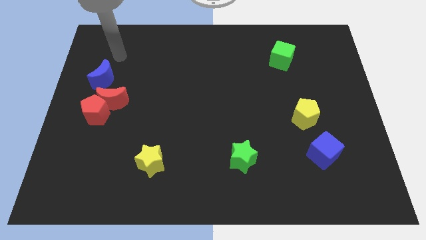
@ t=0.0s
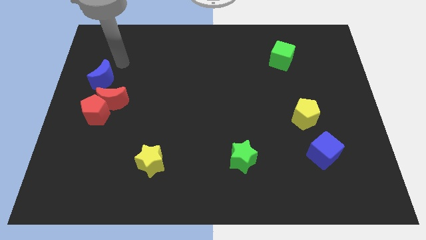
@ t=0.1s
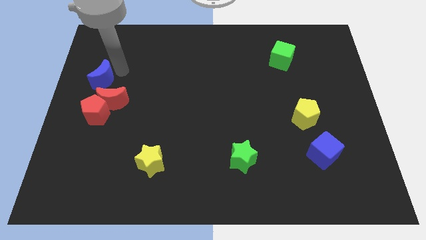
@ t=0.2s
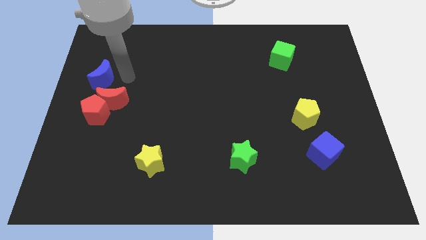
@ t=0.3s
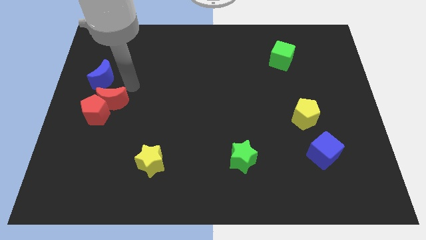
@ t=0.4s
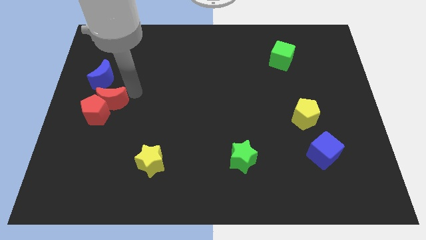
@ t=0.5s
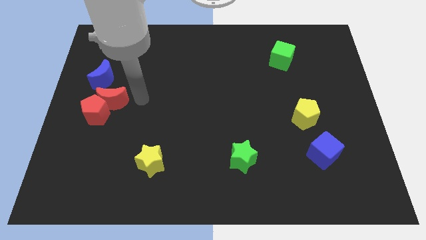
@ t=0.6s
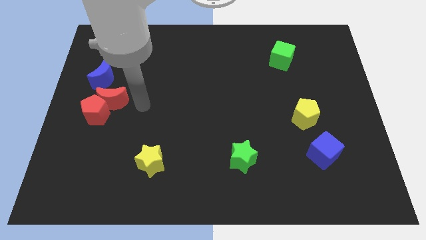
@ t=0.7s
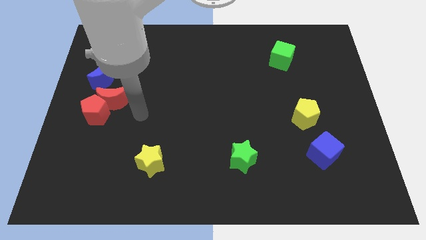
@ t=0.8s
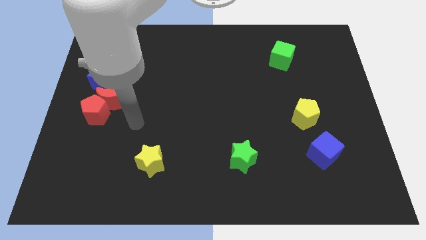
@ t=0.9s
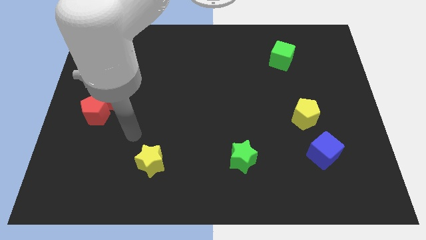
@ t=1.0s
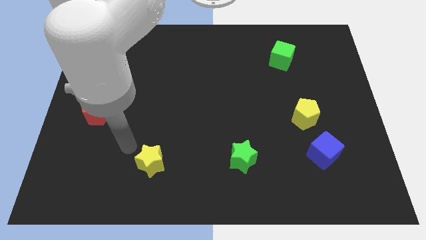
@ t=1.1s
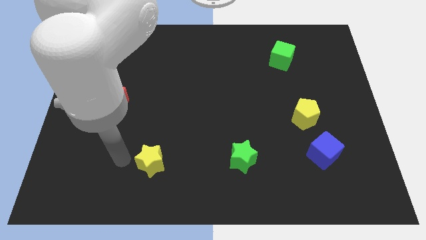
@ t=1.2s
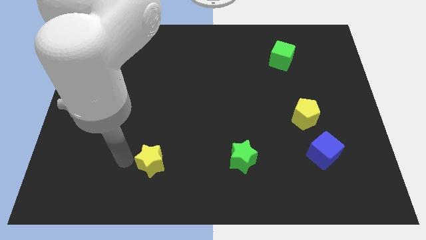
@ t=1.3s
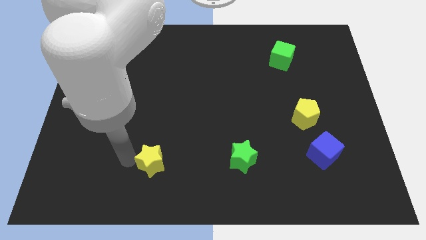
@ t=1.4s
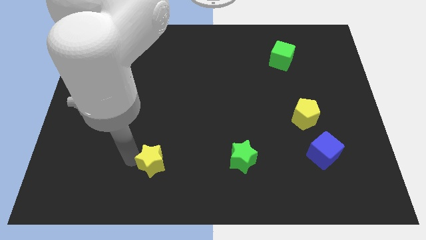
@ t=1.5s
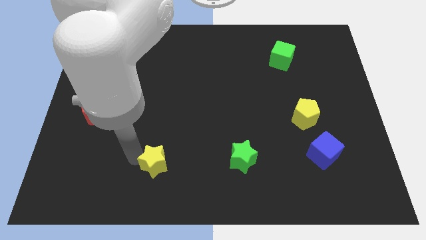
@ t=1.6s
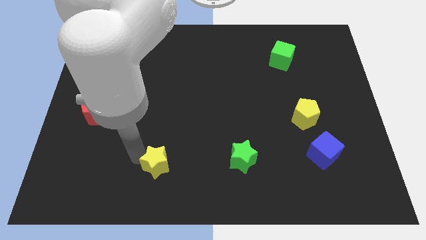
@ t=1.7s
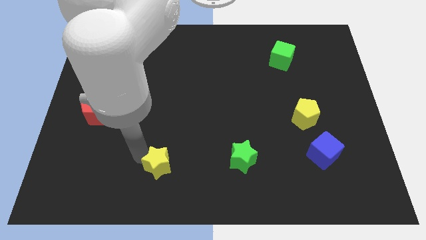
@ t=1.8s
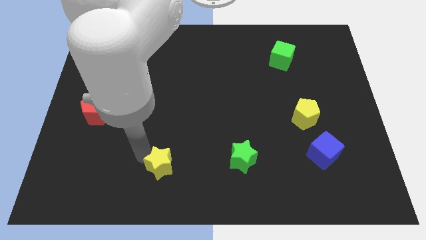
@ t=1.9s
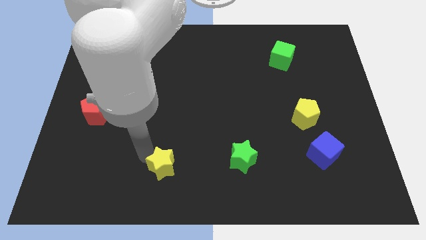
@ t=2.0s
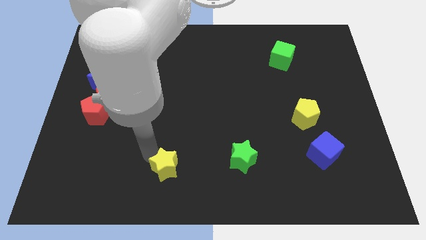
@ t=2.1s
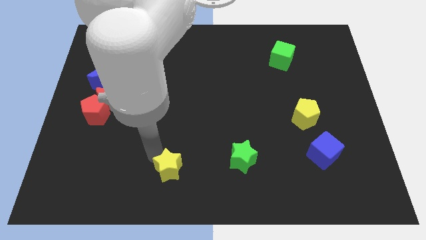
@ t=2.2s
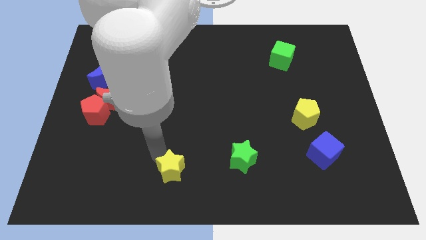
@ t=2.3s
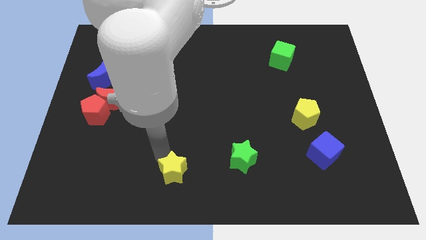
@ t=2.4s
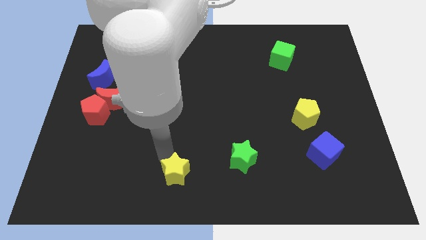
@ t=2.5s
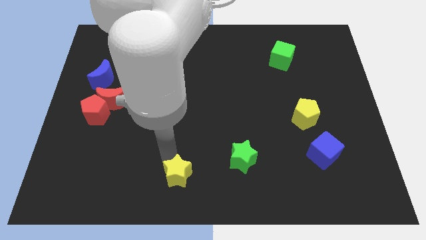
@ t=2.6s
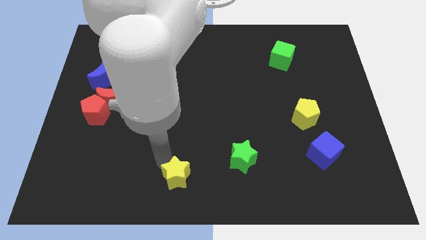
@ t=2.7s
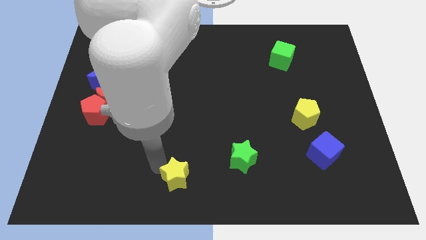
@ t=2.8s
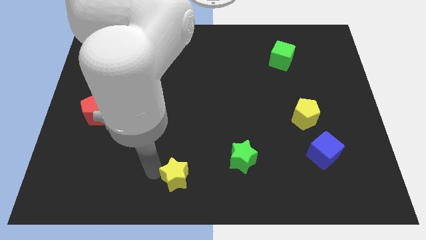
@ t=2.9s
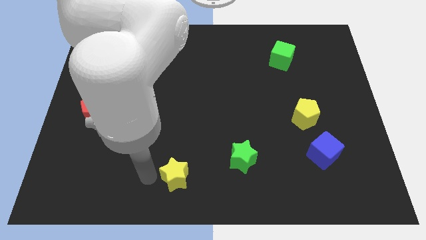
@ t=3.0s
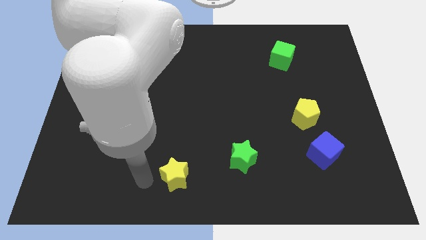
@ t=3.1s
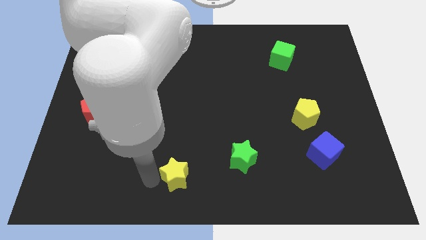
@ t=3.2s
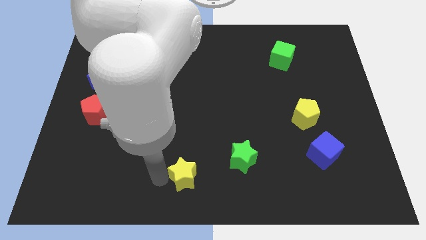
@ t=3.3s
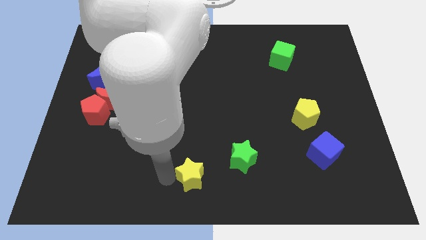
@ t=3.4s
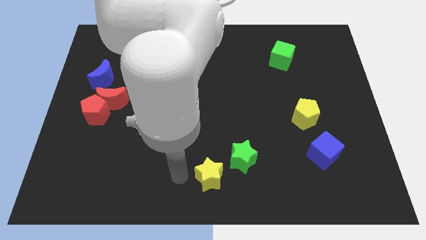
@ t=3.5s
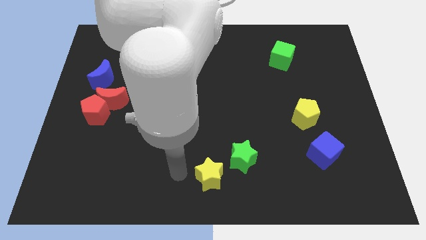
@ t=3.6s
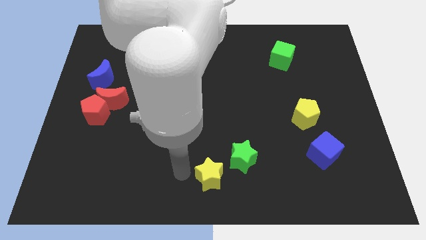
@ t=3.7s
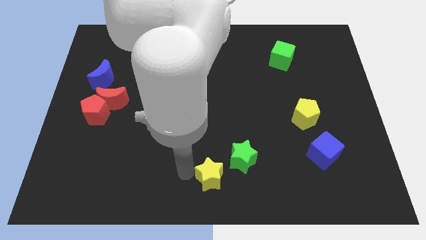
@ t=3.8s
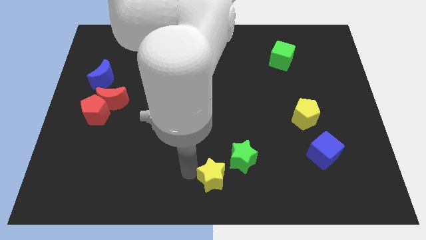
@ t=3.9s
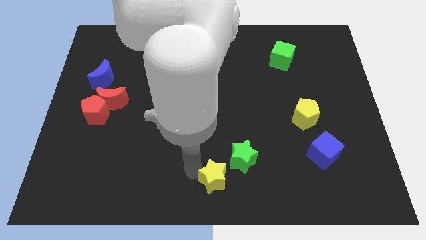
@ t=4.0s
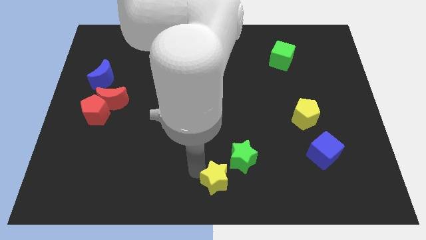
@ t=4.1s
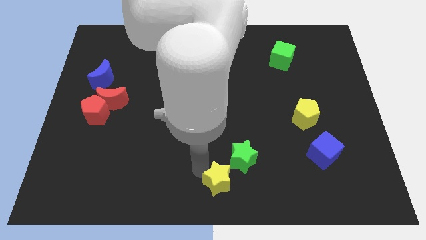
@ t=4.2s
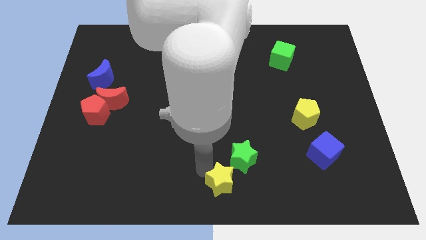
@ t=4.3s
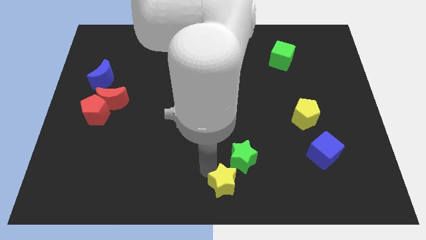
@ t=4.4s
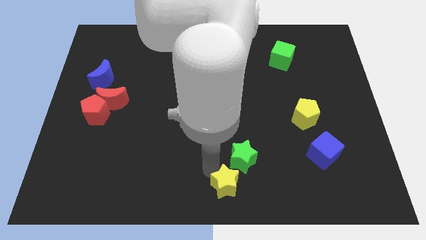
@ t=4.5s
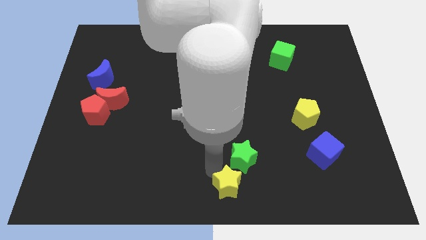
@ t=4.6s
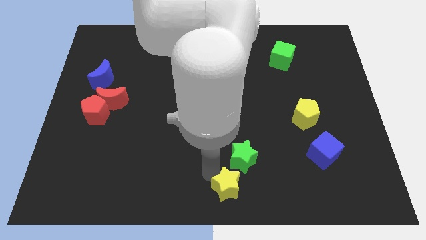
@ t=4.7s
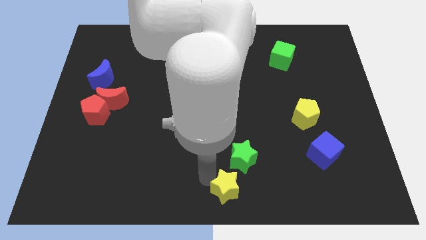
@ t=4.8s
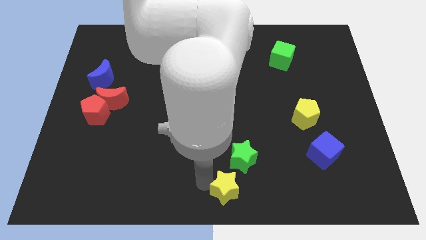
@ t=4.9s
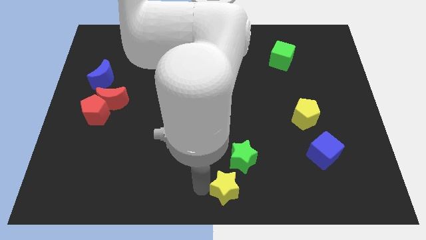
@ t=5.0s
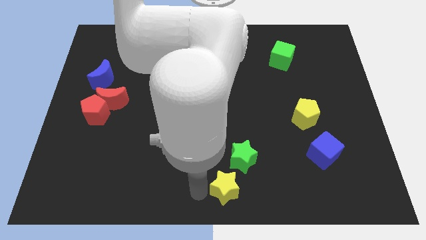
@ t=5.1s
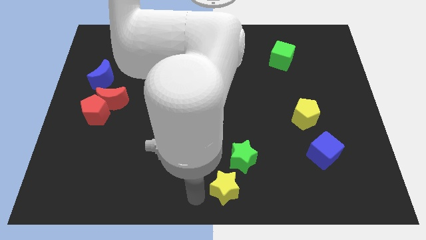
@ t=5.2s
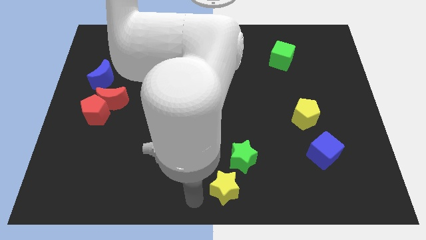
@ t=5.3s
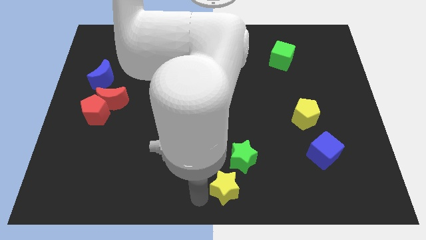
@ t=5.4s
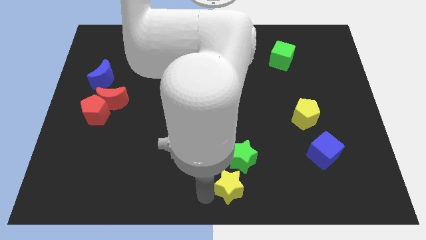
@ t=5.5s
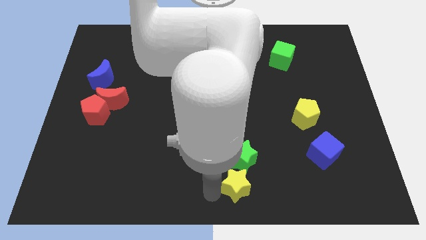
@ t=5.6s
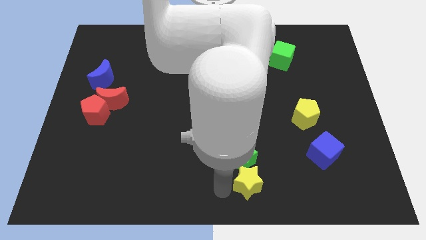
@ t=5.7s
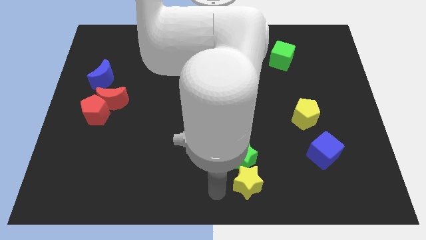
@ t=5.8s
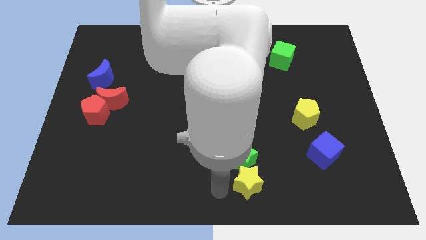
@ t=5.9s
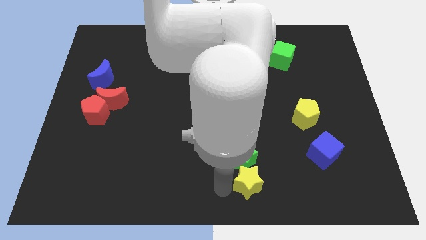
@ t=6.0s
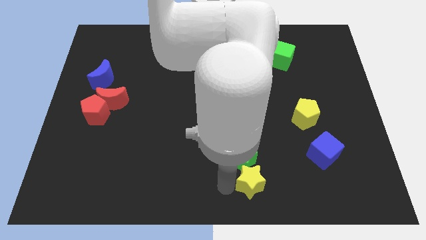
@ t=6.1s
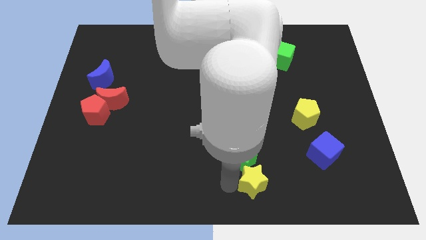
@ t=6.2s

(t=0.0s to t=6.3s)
push the yellow star right

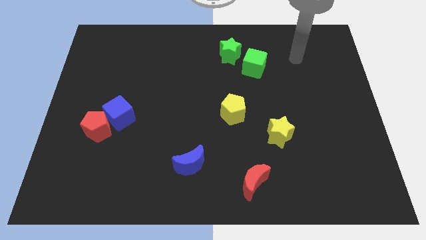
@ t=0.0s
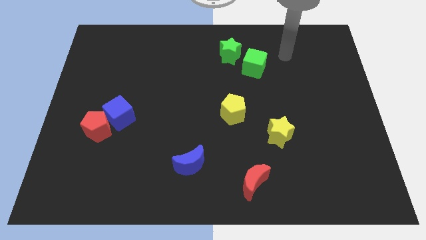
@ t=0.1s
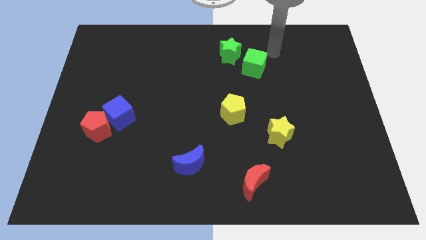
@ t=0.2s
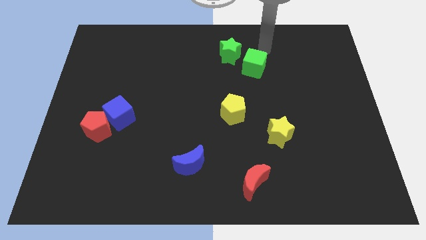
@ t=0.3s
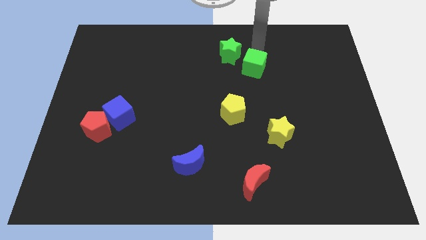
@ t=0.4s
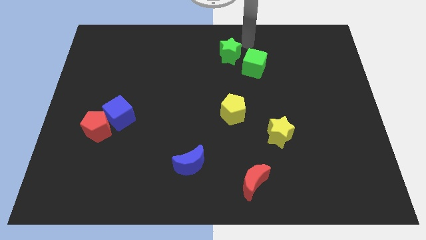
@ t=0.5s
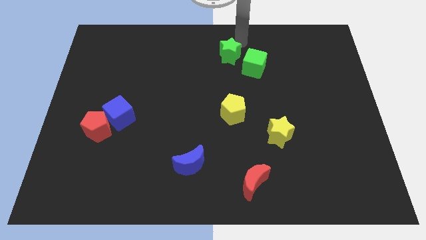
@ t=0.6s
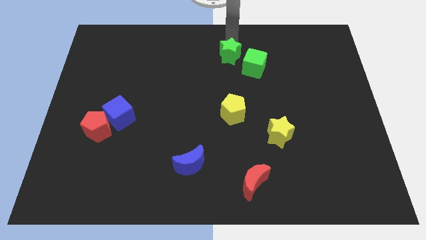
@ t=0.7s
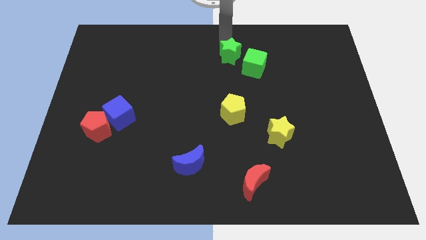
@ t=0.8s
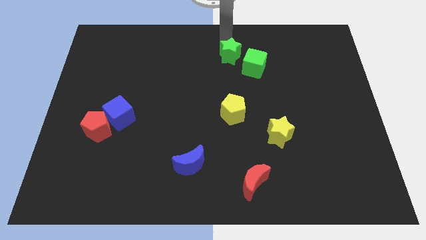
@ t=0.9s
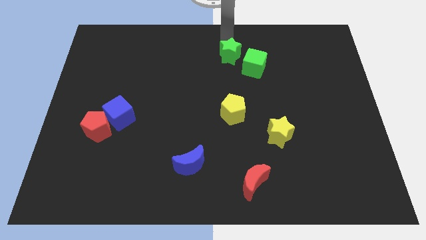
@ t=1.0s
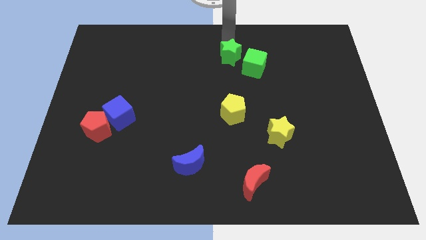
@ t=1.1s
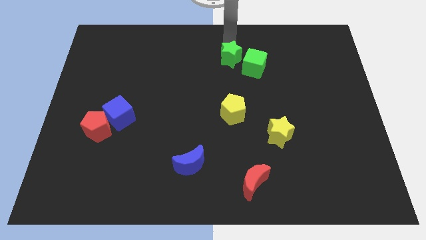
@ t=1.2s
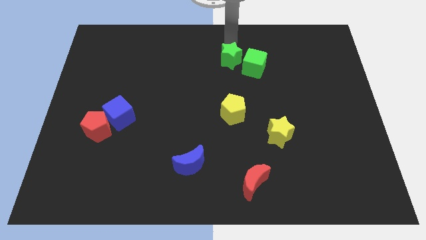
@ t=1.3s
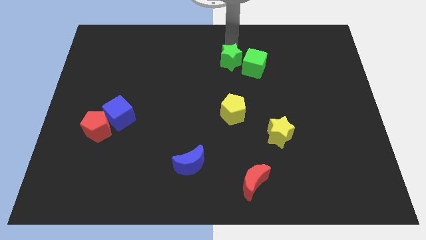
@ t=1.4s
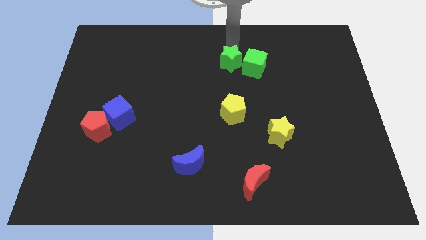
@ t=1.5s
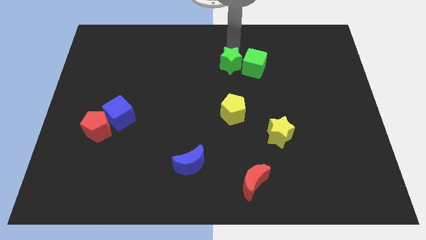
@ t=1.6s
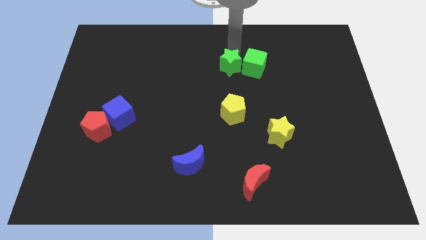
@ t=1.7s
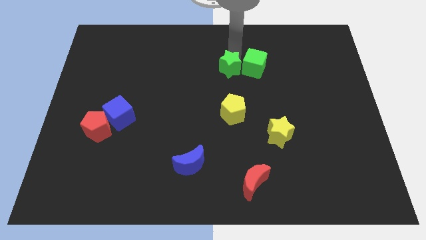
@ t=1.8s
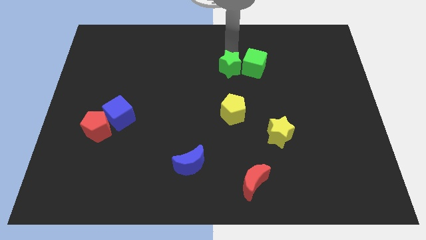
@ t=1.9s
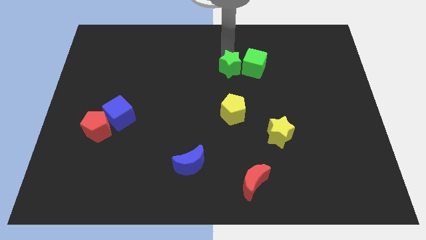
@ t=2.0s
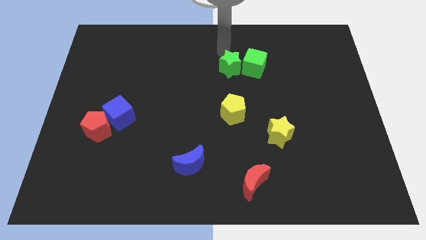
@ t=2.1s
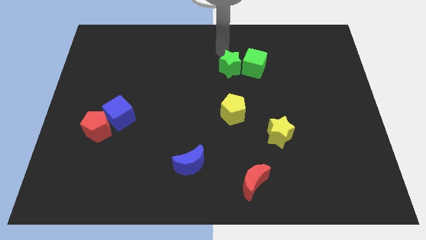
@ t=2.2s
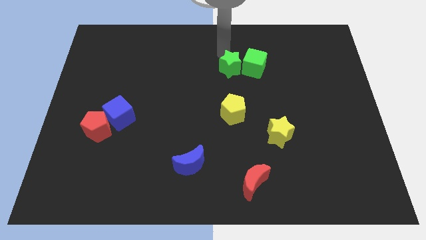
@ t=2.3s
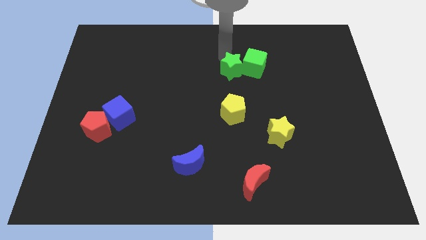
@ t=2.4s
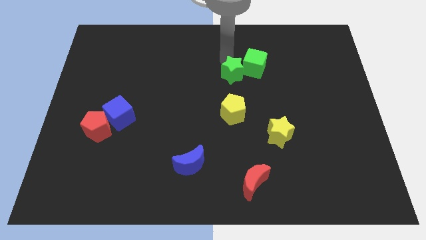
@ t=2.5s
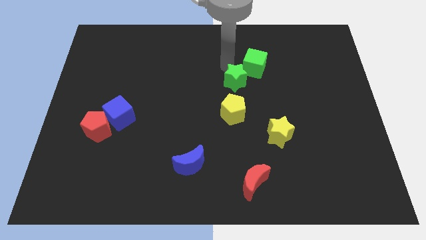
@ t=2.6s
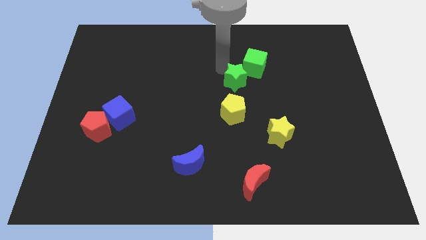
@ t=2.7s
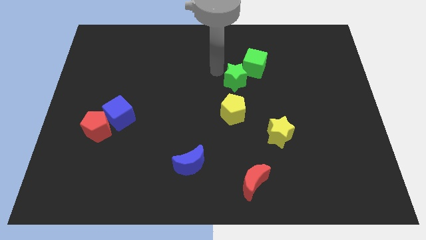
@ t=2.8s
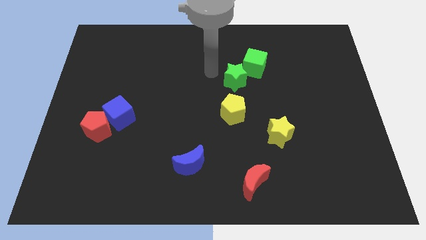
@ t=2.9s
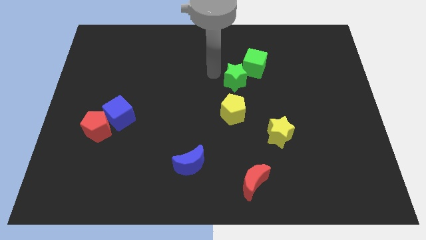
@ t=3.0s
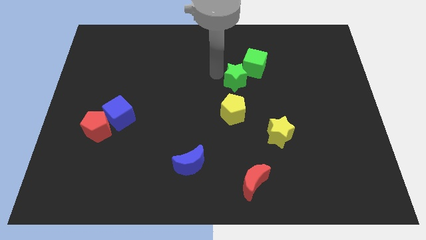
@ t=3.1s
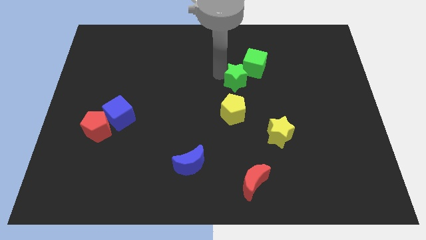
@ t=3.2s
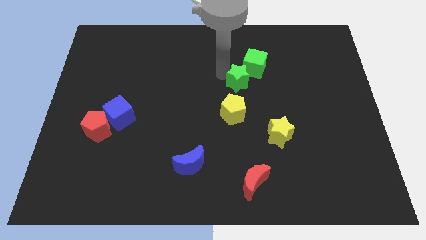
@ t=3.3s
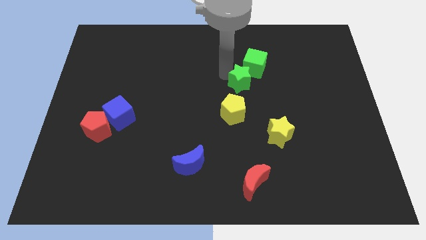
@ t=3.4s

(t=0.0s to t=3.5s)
push the green star downwards and then to the right a bit
